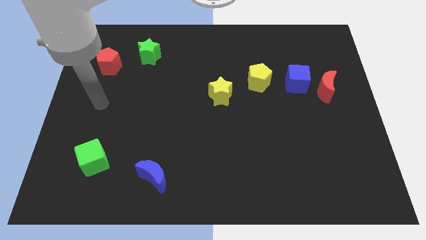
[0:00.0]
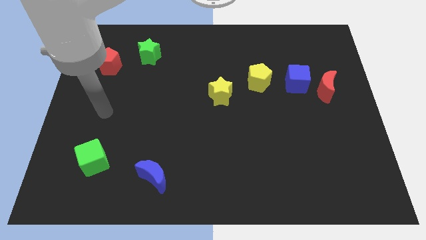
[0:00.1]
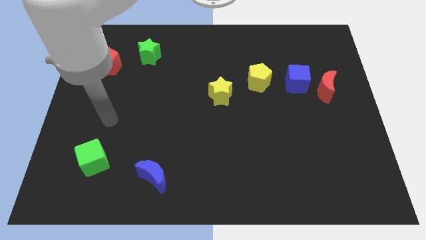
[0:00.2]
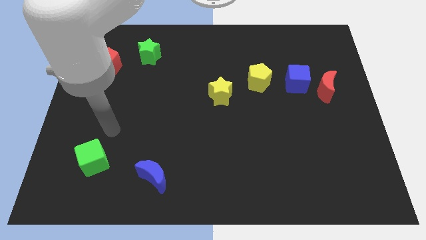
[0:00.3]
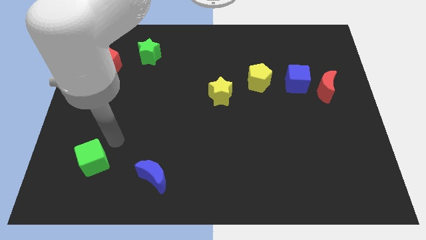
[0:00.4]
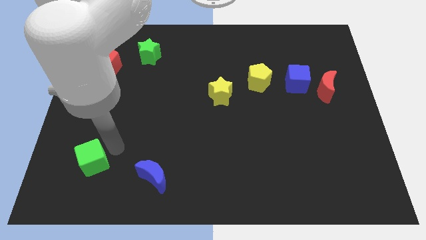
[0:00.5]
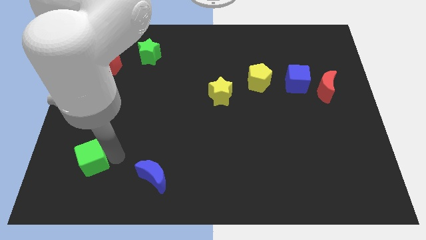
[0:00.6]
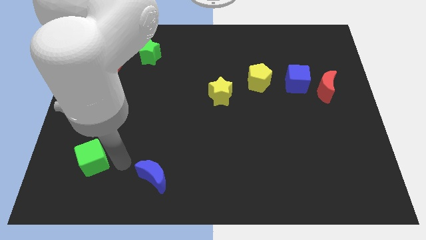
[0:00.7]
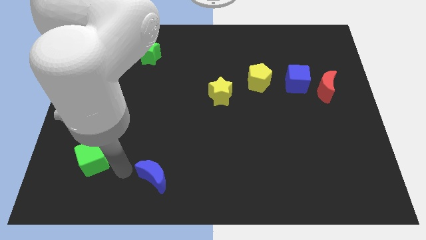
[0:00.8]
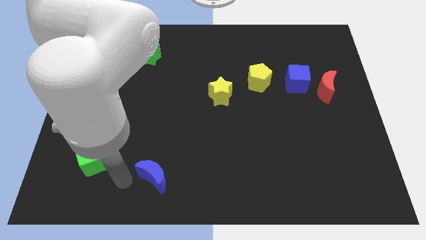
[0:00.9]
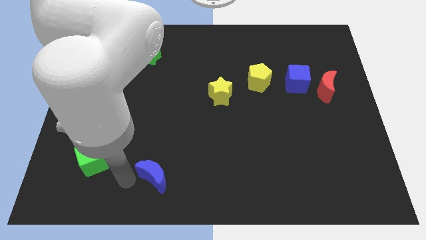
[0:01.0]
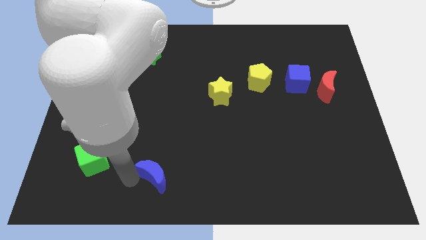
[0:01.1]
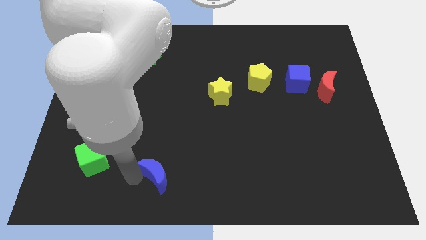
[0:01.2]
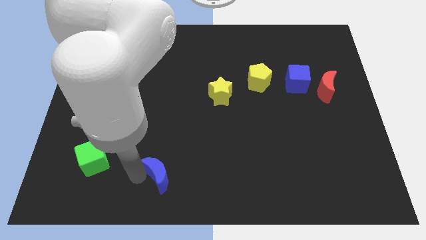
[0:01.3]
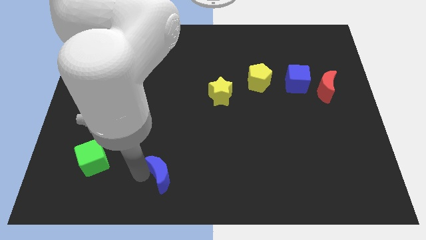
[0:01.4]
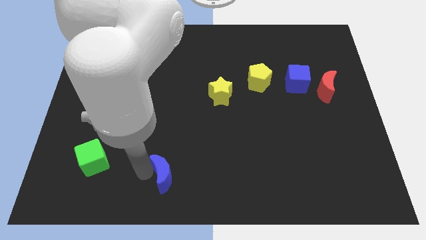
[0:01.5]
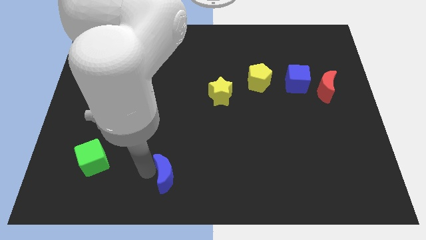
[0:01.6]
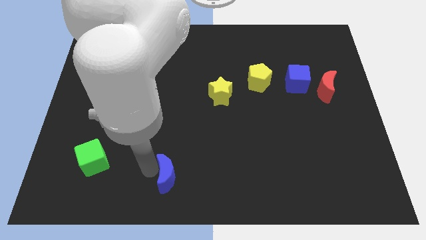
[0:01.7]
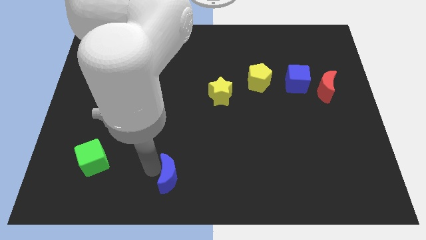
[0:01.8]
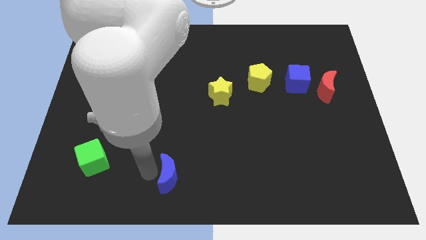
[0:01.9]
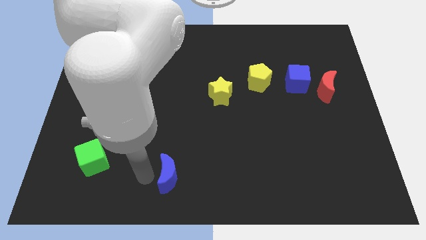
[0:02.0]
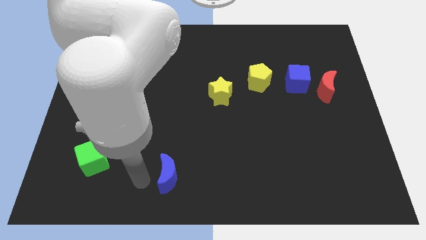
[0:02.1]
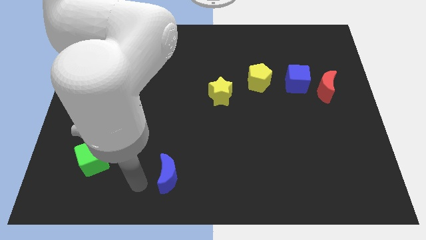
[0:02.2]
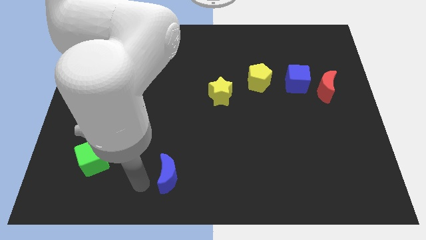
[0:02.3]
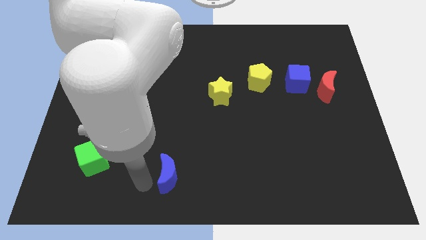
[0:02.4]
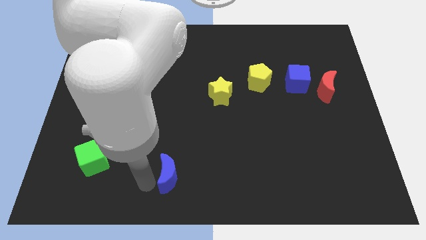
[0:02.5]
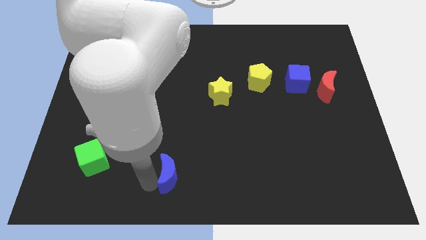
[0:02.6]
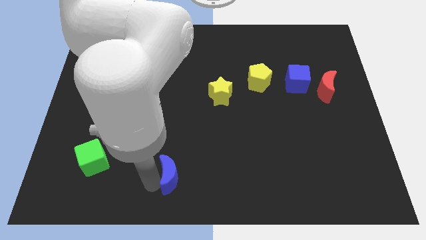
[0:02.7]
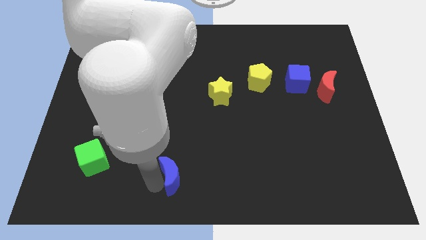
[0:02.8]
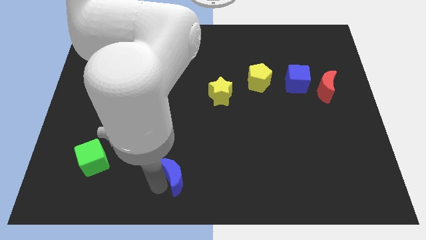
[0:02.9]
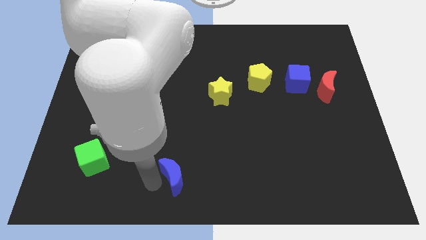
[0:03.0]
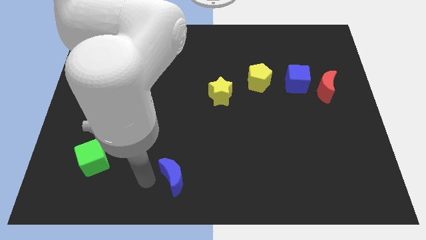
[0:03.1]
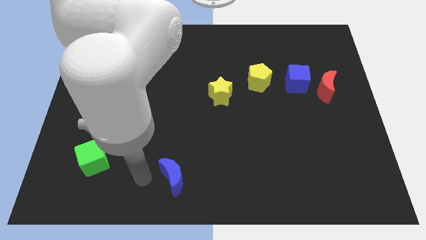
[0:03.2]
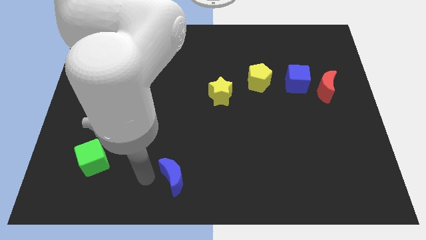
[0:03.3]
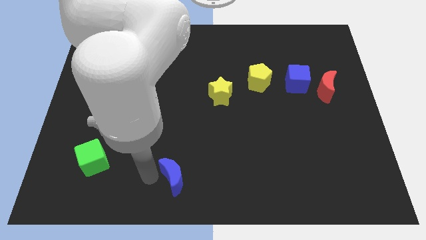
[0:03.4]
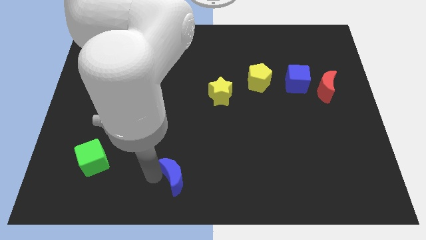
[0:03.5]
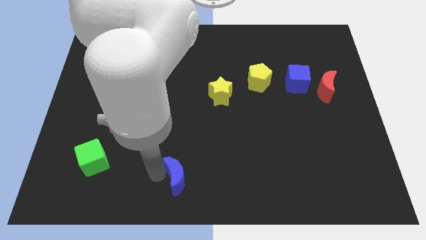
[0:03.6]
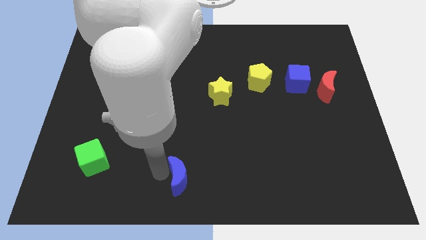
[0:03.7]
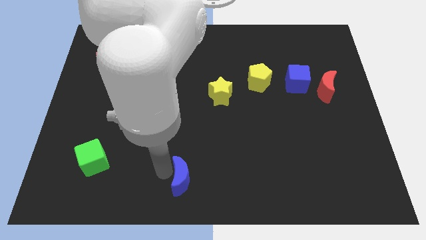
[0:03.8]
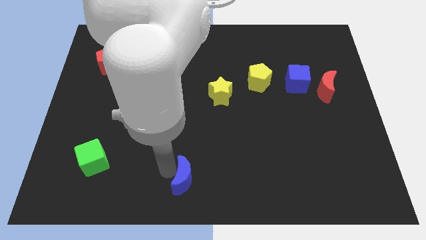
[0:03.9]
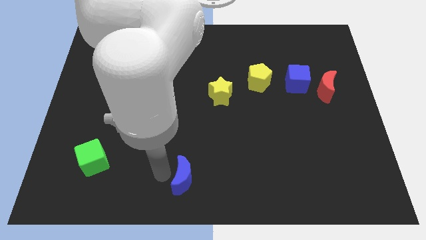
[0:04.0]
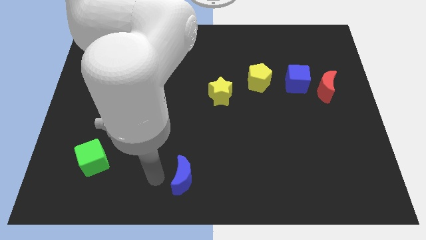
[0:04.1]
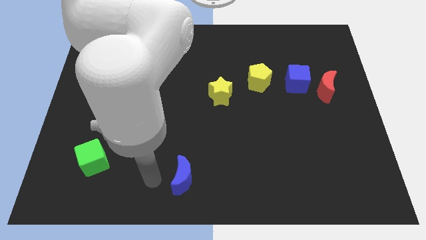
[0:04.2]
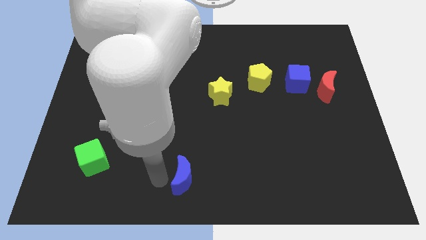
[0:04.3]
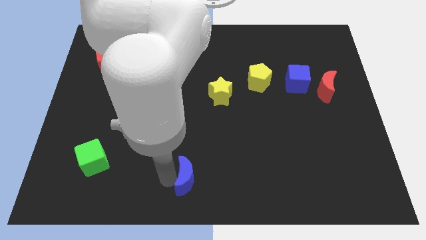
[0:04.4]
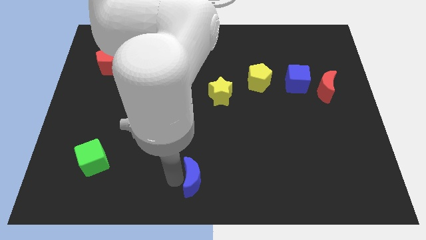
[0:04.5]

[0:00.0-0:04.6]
slightly push the blue moon right

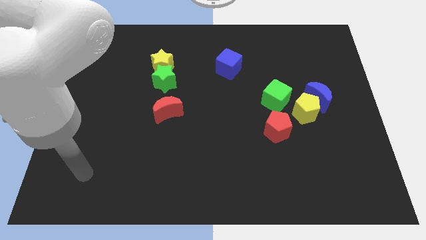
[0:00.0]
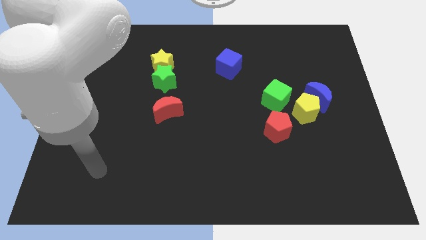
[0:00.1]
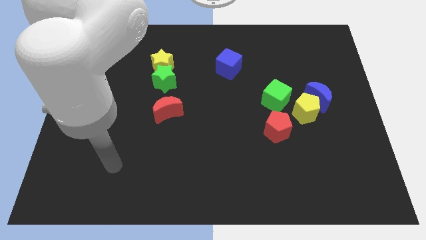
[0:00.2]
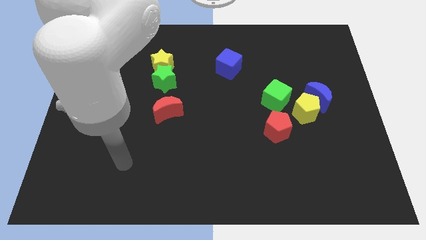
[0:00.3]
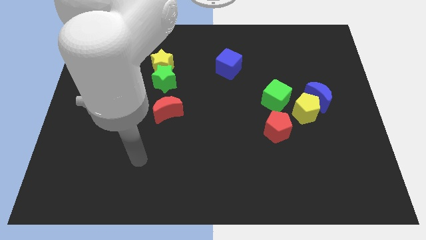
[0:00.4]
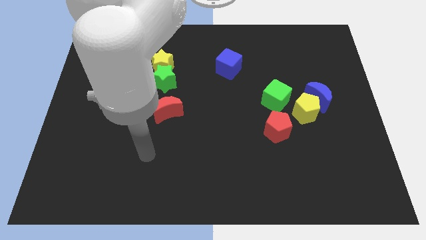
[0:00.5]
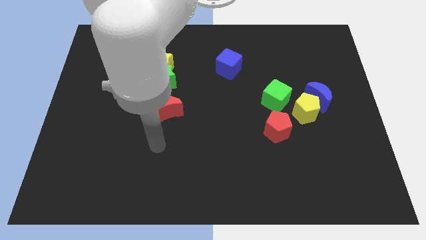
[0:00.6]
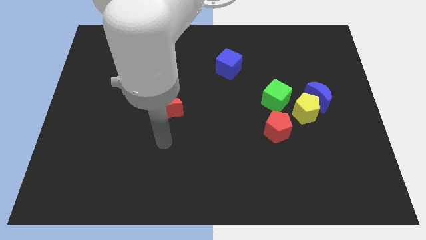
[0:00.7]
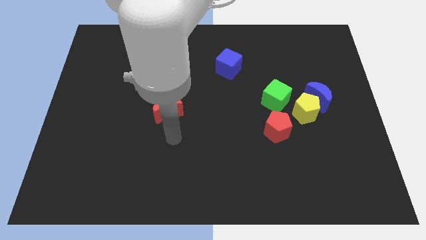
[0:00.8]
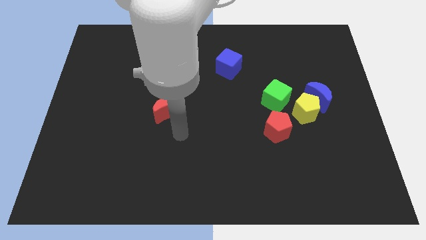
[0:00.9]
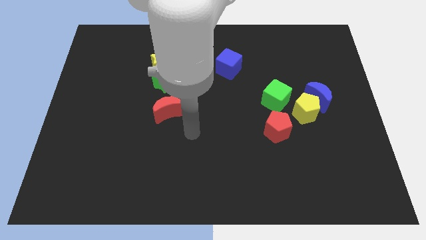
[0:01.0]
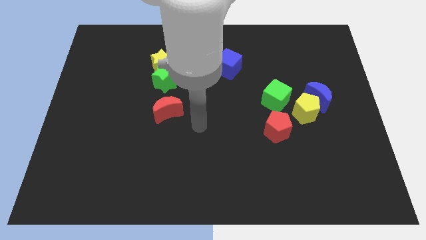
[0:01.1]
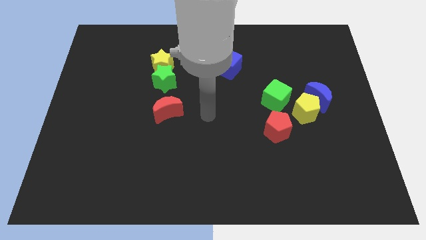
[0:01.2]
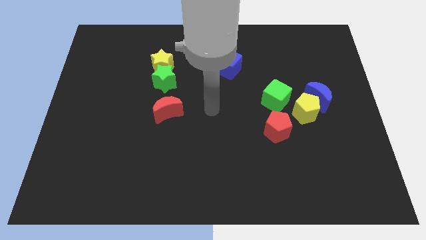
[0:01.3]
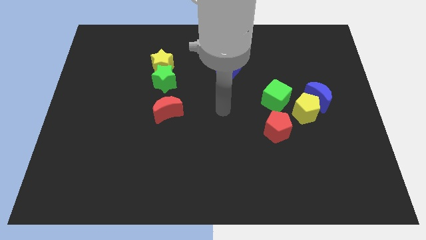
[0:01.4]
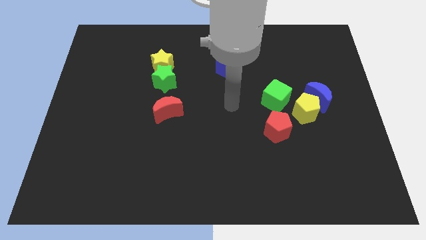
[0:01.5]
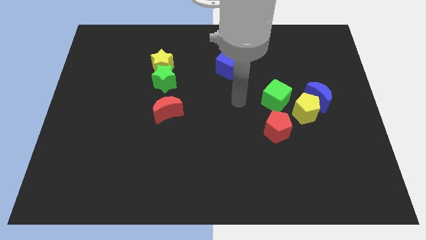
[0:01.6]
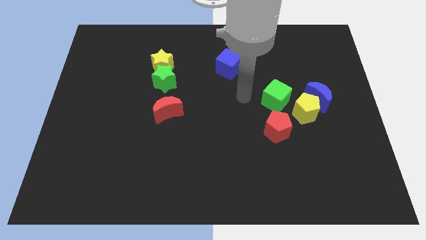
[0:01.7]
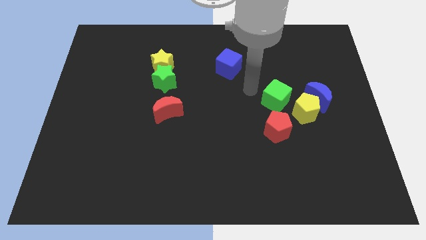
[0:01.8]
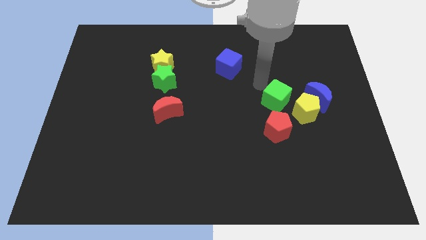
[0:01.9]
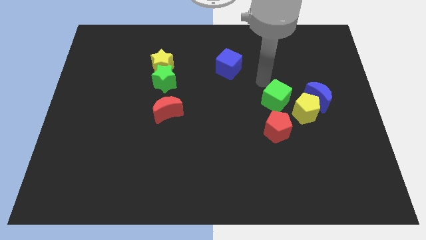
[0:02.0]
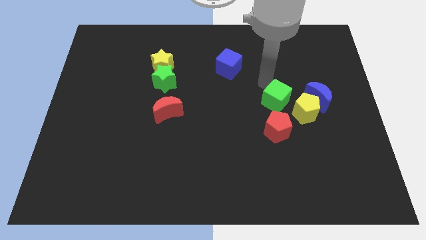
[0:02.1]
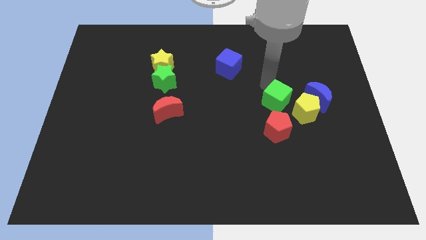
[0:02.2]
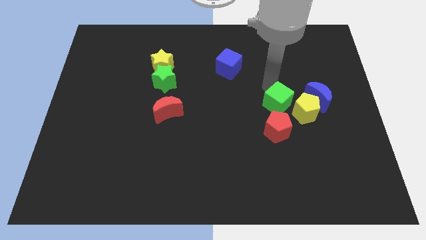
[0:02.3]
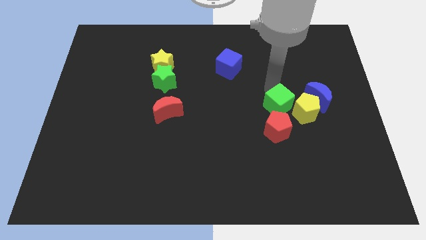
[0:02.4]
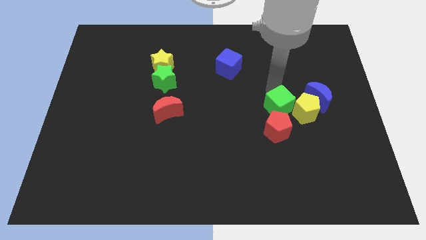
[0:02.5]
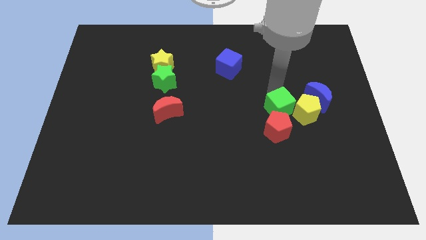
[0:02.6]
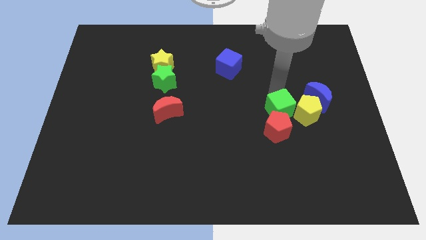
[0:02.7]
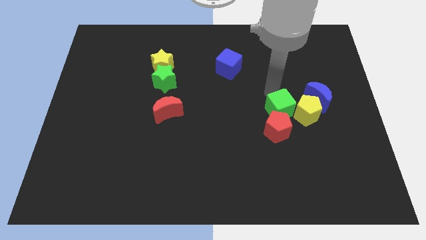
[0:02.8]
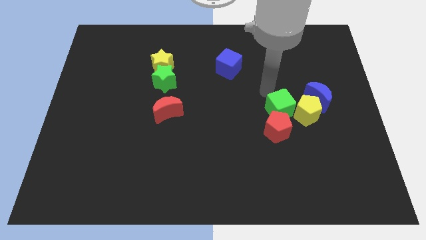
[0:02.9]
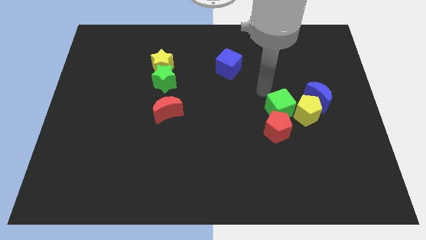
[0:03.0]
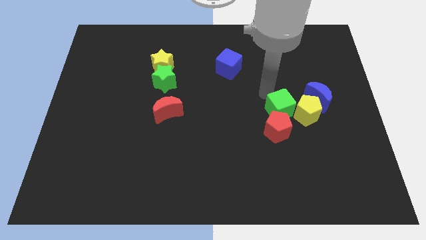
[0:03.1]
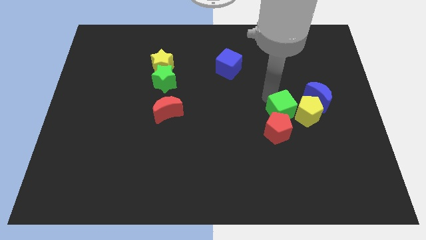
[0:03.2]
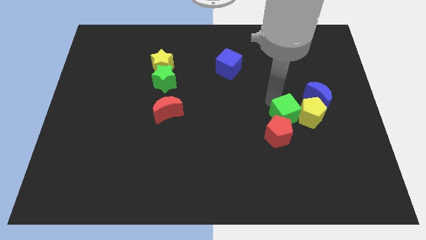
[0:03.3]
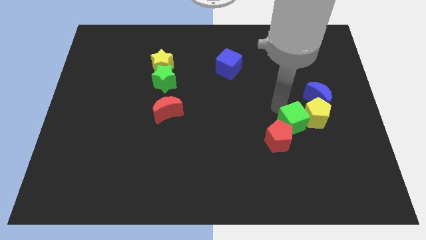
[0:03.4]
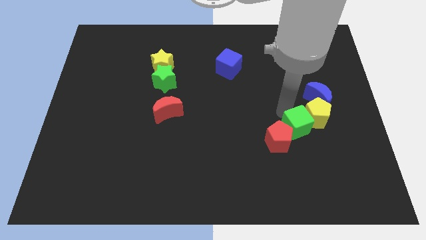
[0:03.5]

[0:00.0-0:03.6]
push the green cube downwards slightly
